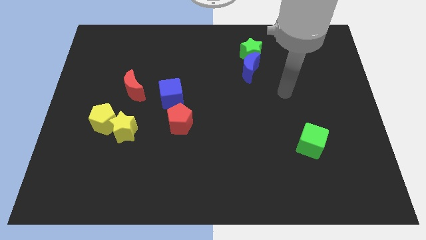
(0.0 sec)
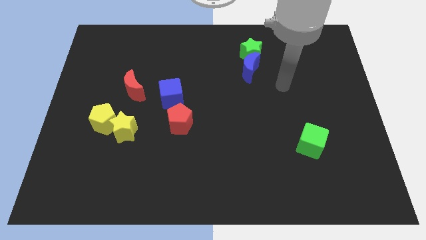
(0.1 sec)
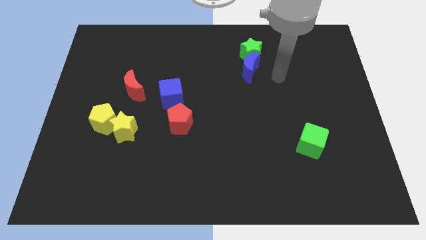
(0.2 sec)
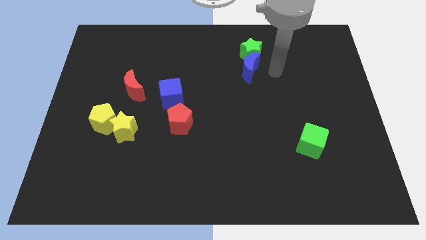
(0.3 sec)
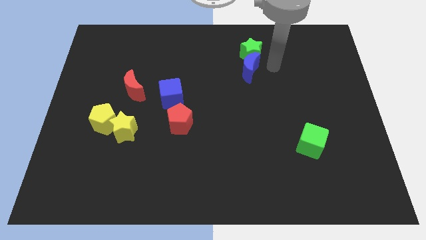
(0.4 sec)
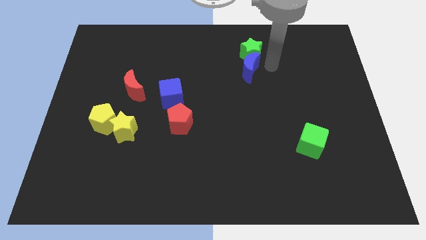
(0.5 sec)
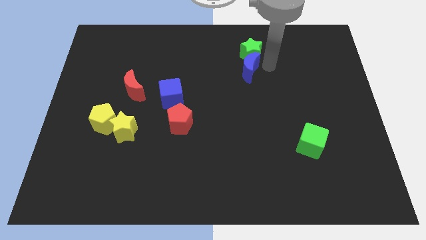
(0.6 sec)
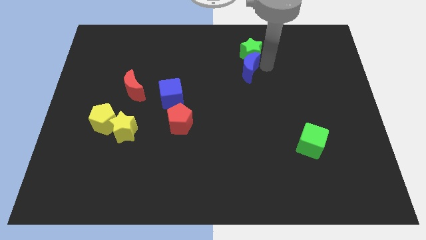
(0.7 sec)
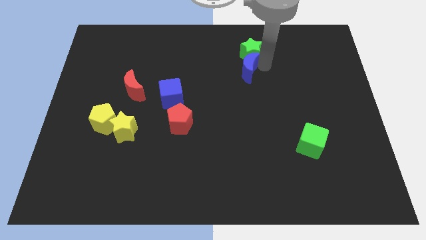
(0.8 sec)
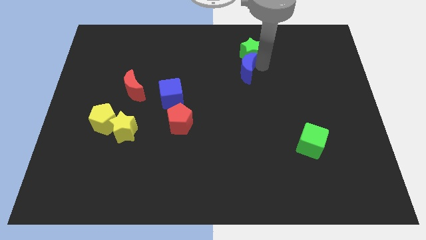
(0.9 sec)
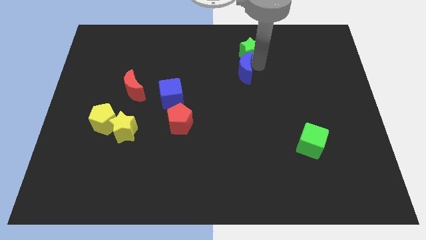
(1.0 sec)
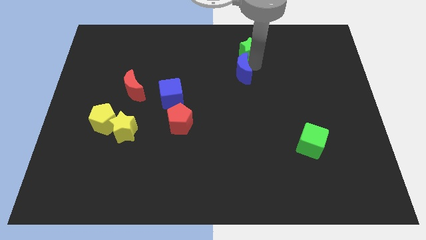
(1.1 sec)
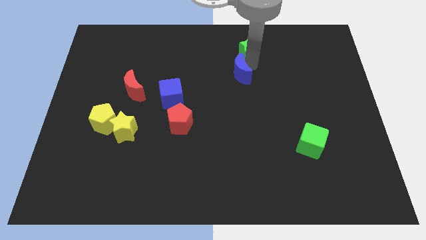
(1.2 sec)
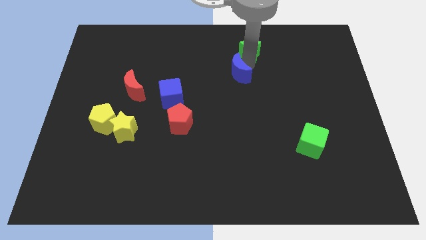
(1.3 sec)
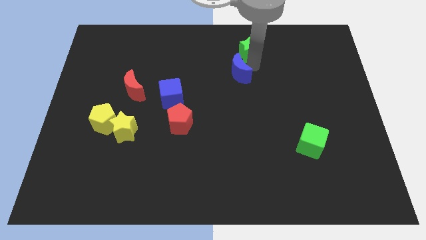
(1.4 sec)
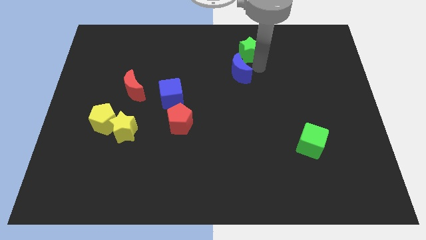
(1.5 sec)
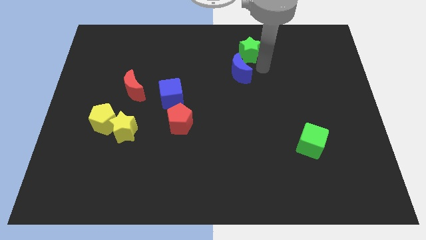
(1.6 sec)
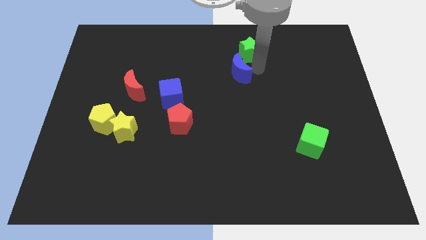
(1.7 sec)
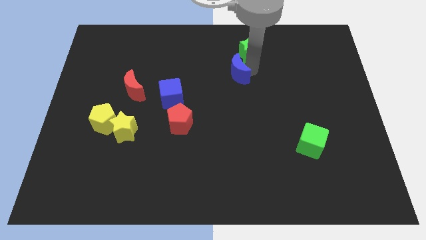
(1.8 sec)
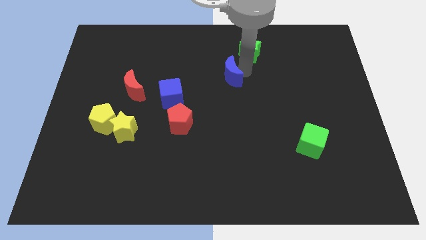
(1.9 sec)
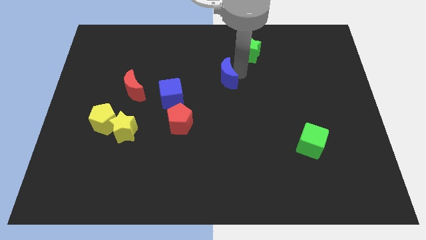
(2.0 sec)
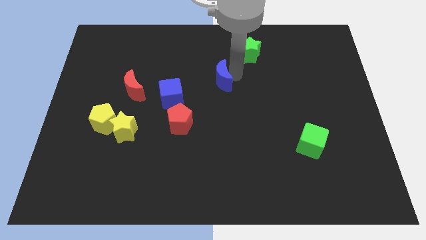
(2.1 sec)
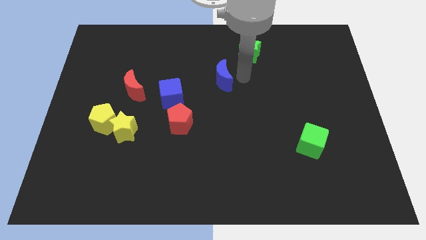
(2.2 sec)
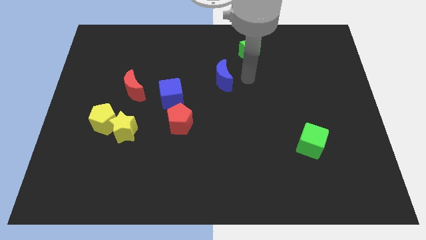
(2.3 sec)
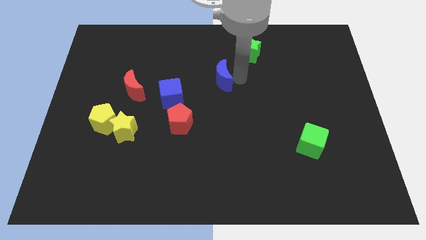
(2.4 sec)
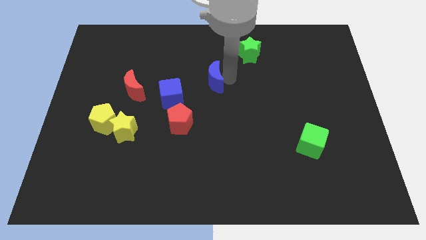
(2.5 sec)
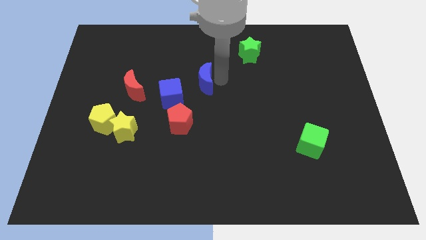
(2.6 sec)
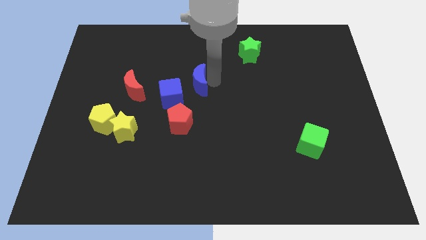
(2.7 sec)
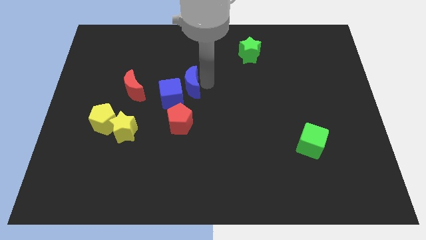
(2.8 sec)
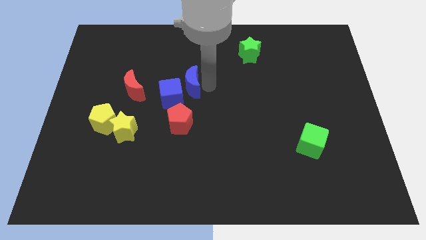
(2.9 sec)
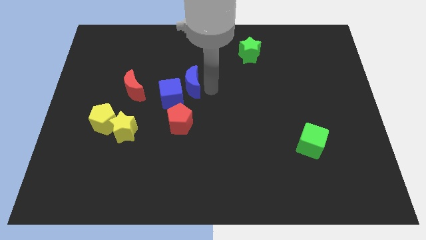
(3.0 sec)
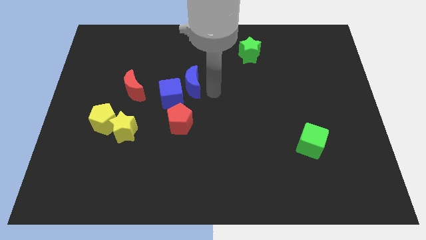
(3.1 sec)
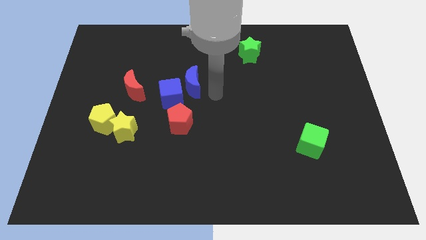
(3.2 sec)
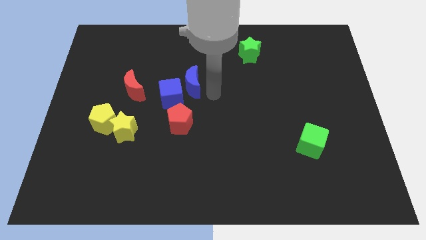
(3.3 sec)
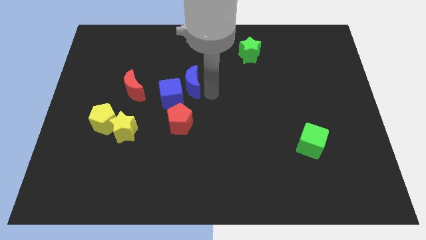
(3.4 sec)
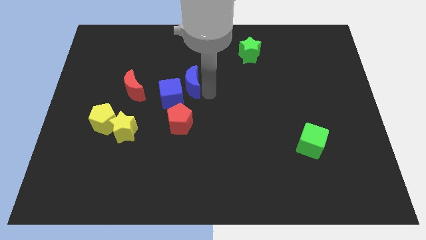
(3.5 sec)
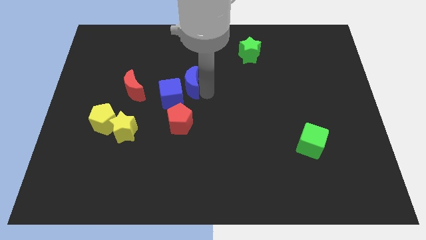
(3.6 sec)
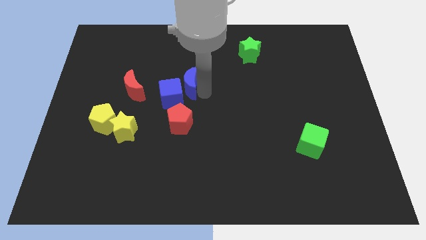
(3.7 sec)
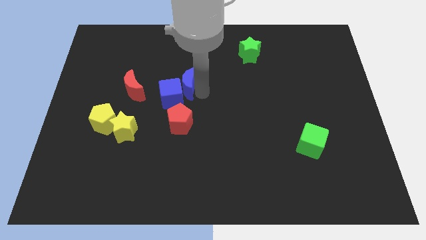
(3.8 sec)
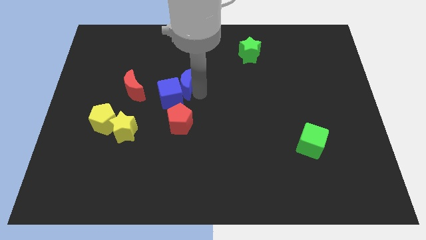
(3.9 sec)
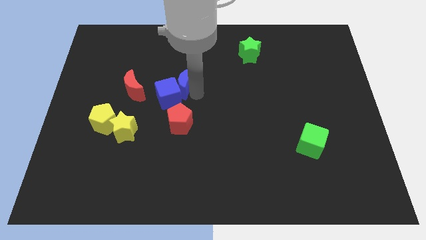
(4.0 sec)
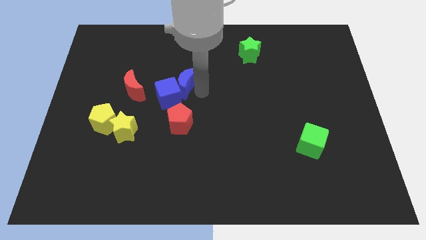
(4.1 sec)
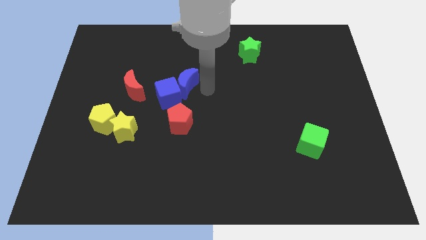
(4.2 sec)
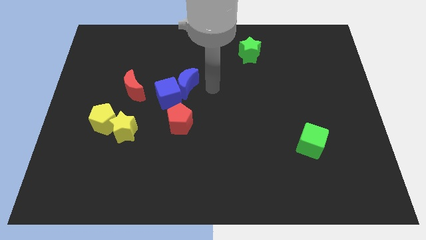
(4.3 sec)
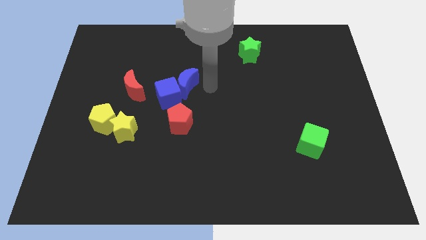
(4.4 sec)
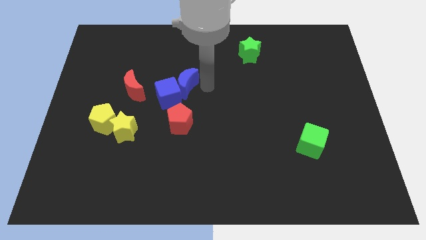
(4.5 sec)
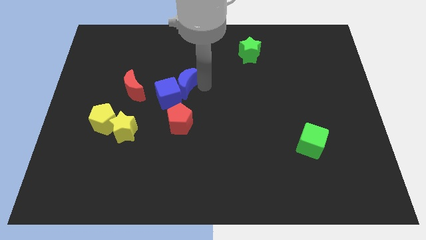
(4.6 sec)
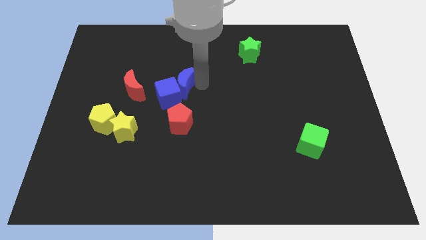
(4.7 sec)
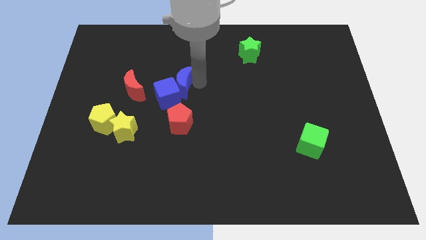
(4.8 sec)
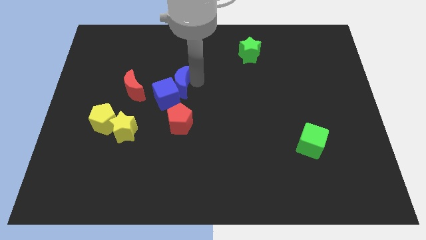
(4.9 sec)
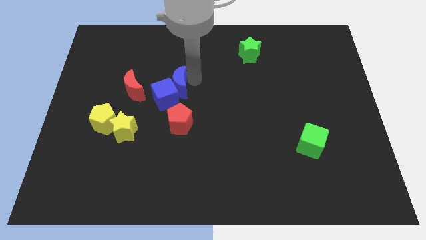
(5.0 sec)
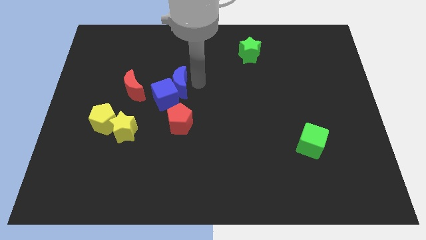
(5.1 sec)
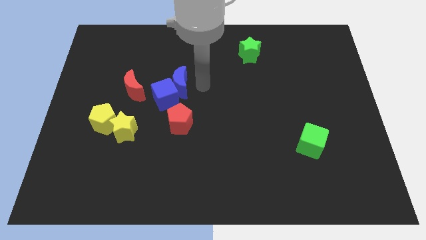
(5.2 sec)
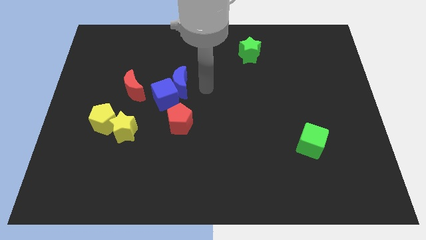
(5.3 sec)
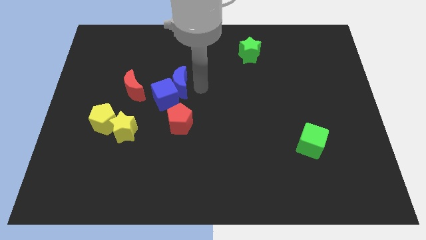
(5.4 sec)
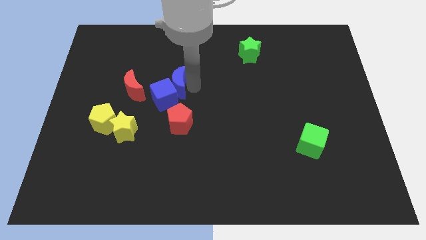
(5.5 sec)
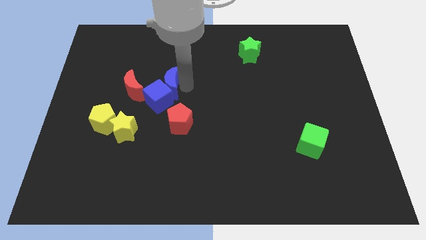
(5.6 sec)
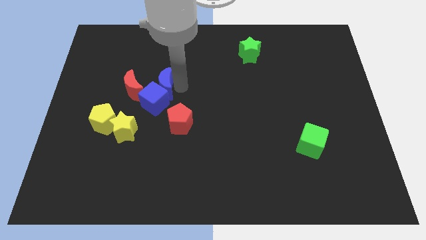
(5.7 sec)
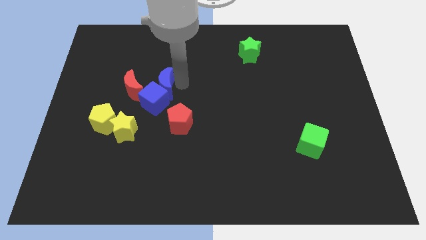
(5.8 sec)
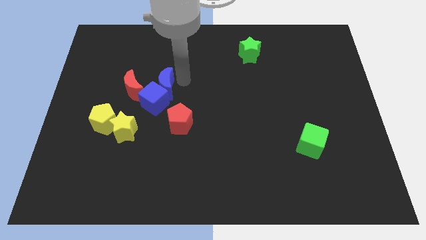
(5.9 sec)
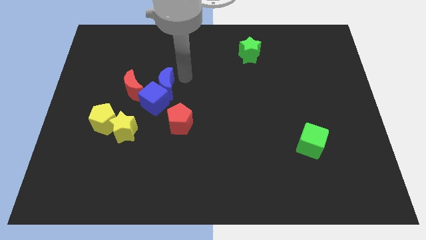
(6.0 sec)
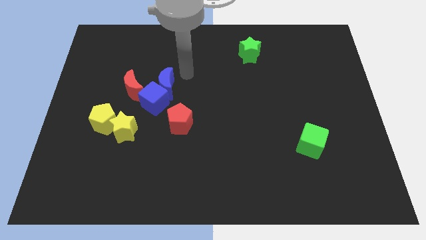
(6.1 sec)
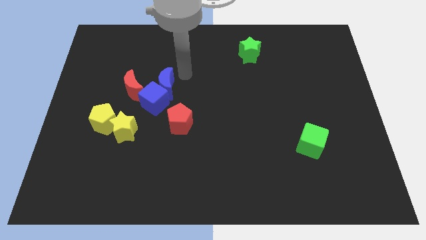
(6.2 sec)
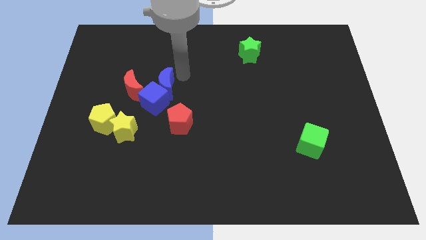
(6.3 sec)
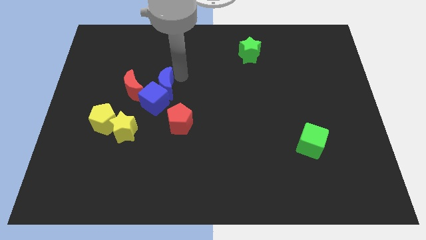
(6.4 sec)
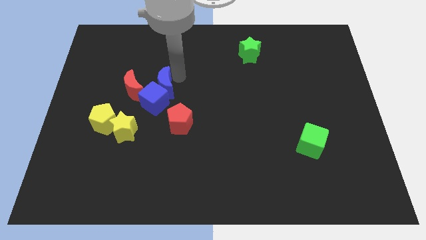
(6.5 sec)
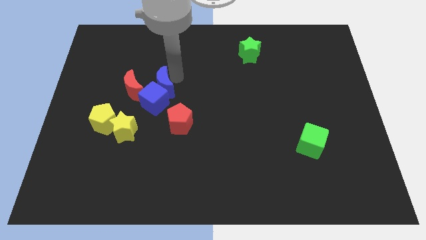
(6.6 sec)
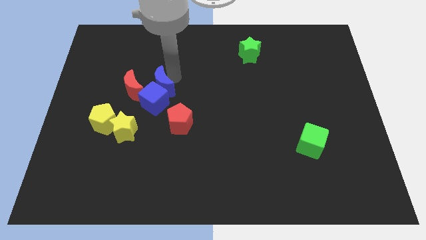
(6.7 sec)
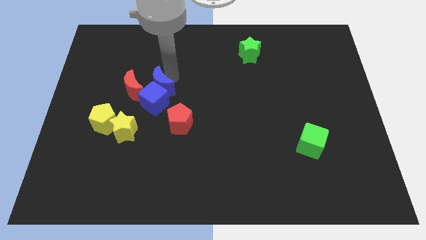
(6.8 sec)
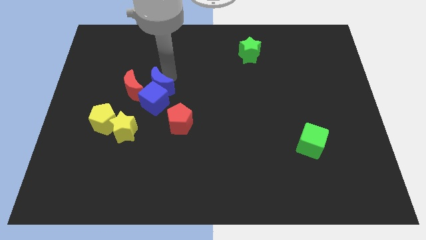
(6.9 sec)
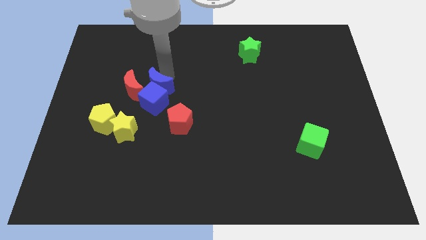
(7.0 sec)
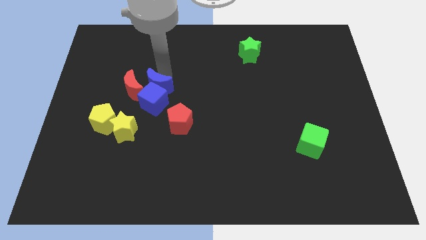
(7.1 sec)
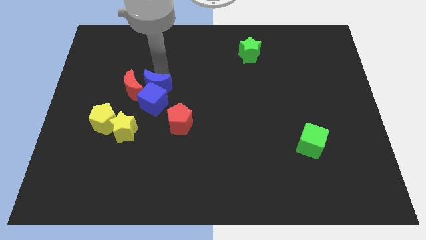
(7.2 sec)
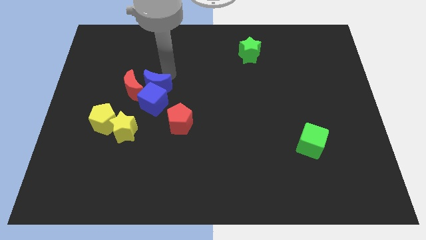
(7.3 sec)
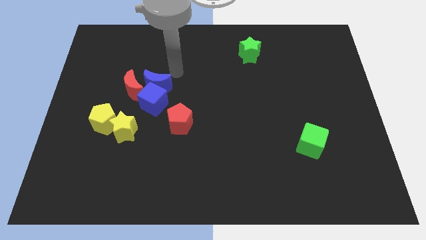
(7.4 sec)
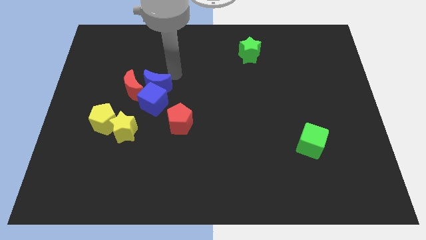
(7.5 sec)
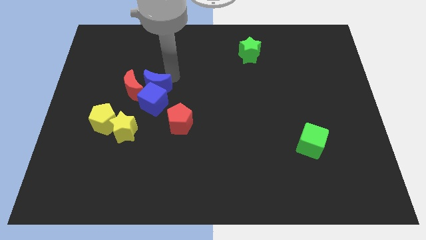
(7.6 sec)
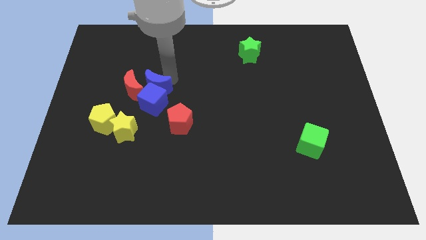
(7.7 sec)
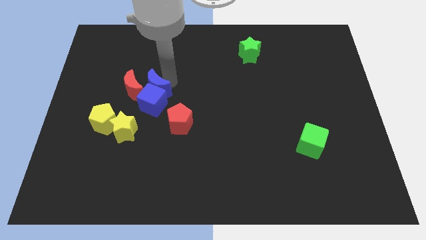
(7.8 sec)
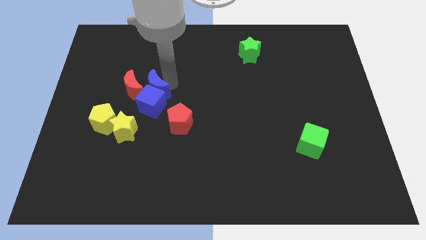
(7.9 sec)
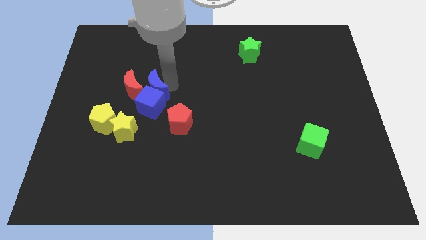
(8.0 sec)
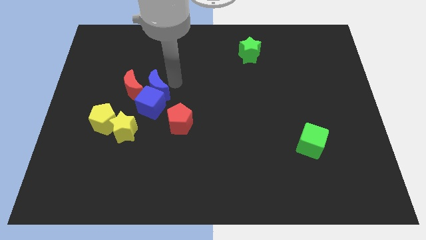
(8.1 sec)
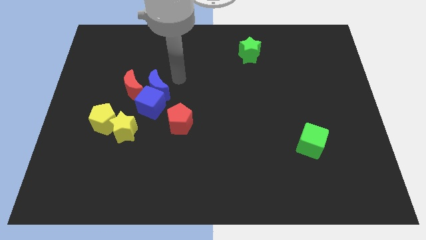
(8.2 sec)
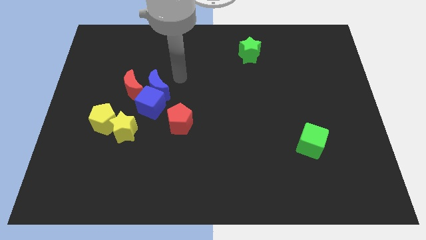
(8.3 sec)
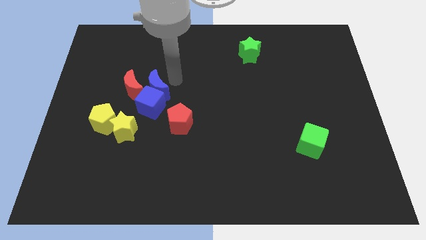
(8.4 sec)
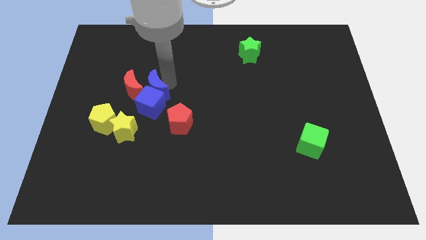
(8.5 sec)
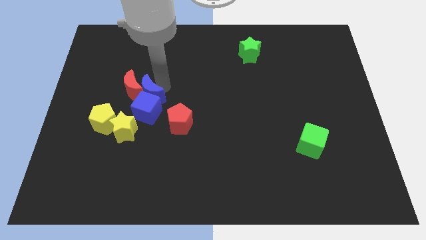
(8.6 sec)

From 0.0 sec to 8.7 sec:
push the blue moon to the top right side of the yellow pentagon
